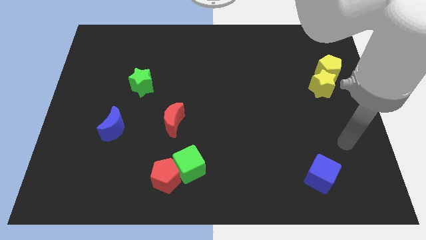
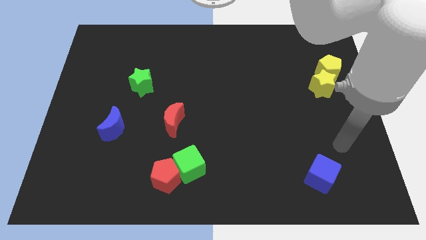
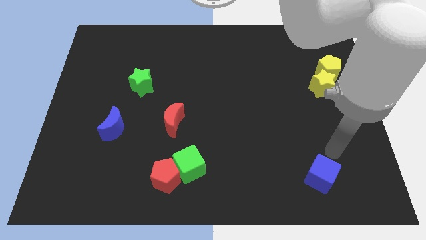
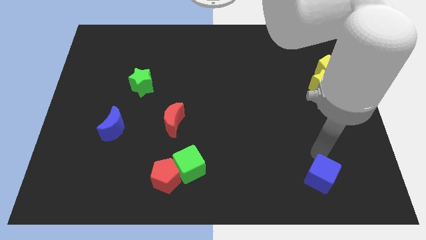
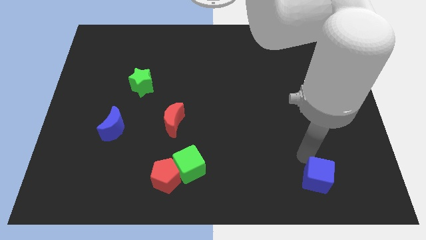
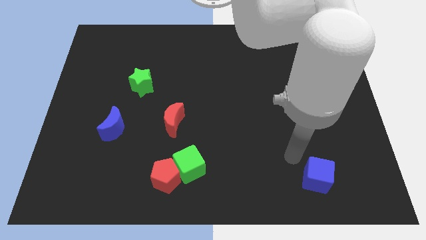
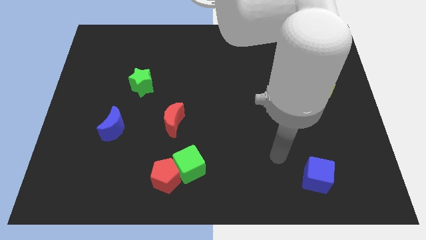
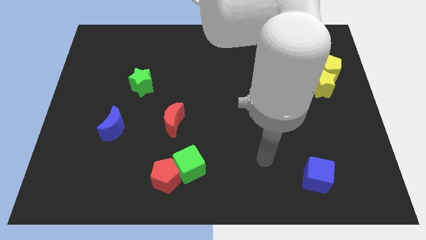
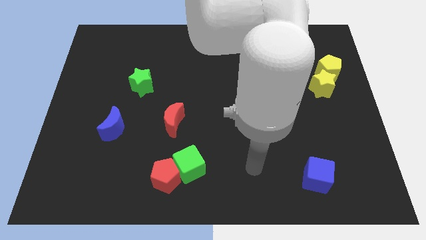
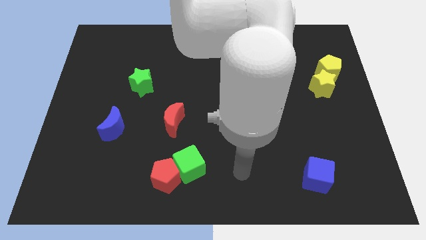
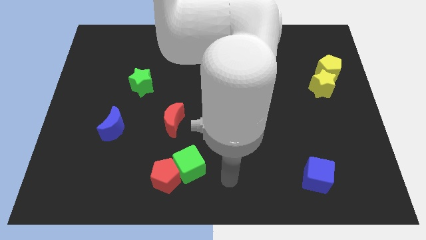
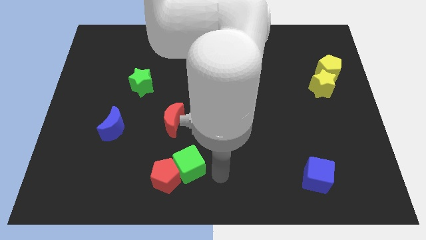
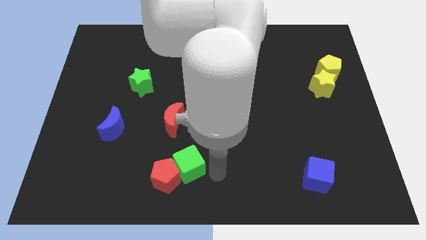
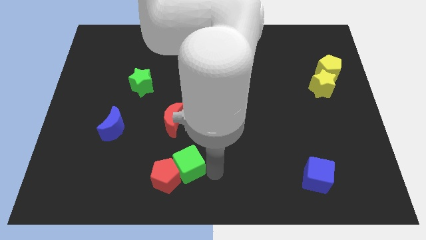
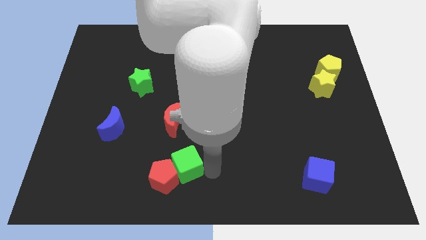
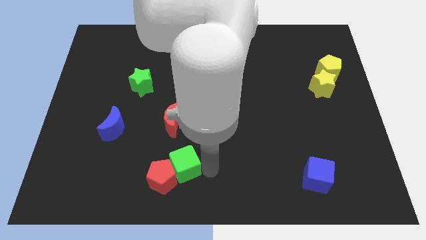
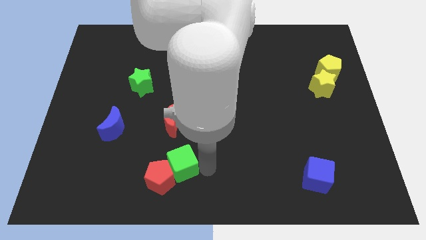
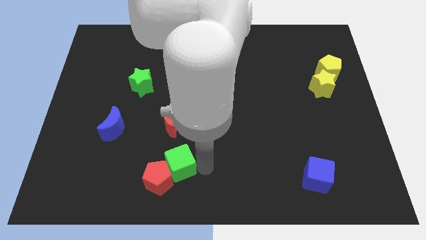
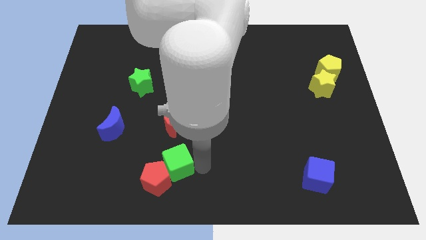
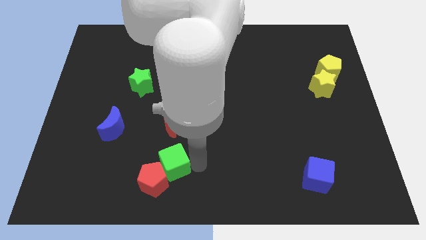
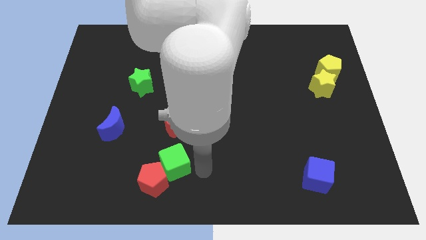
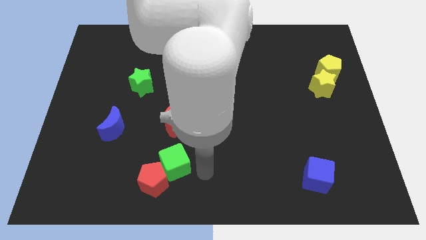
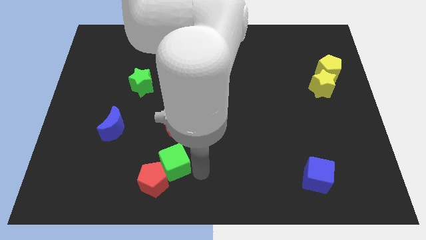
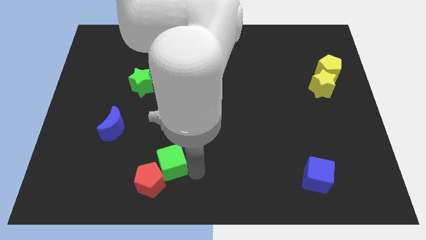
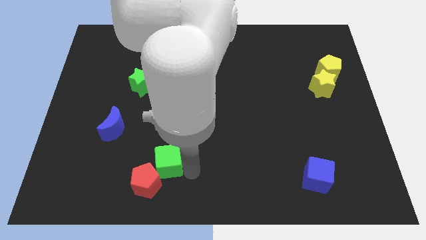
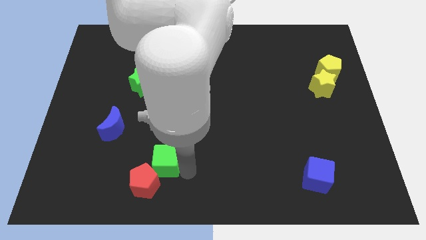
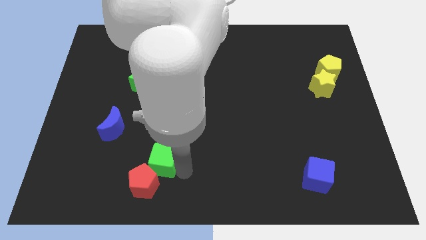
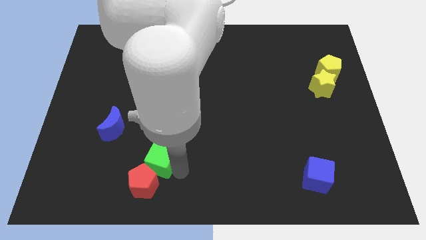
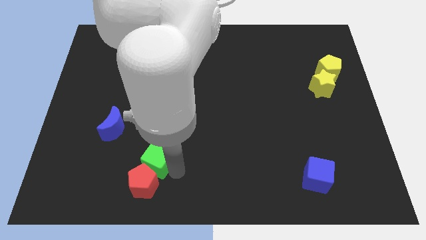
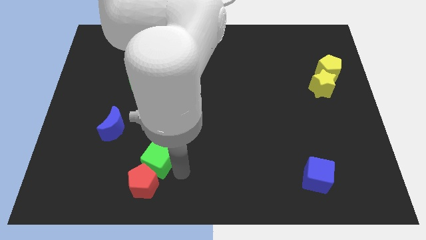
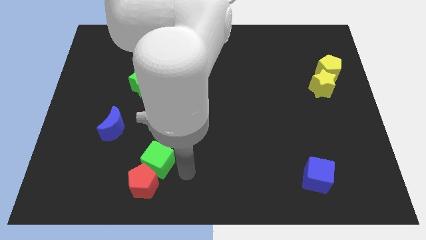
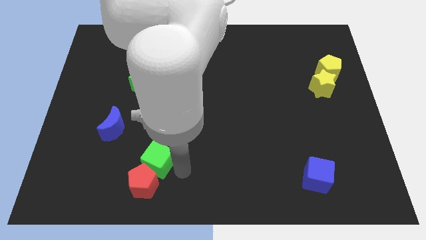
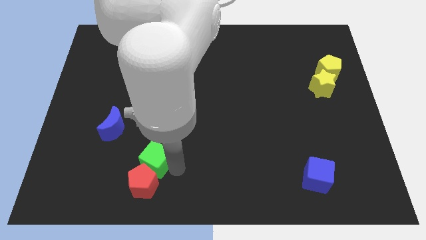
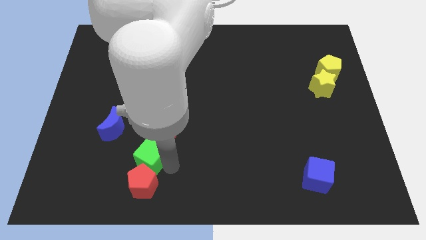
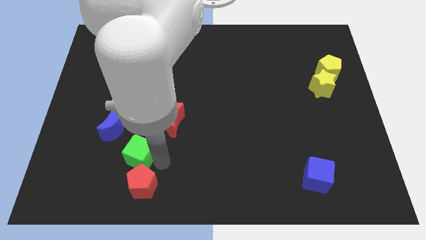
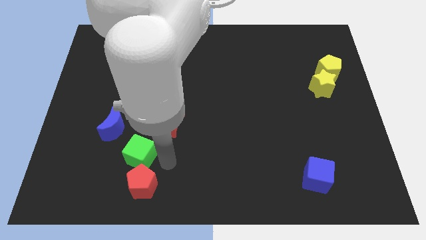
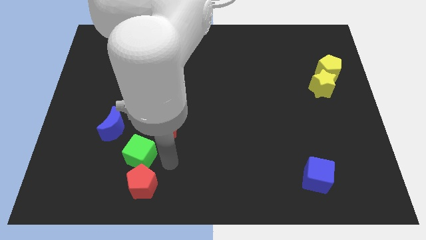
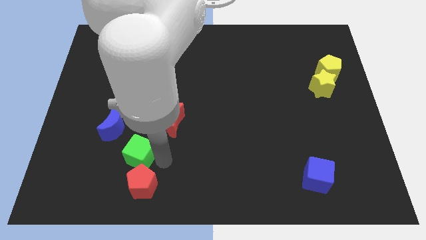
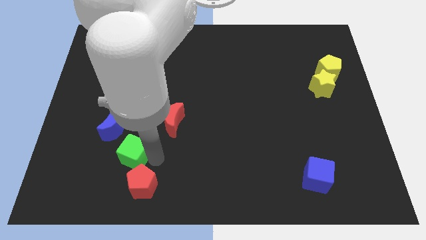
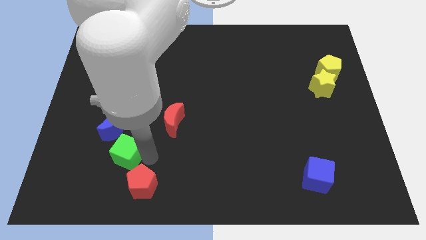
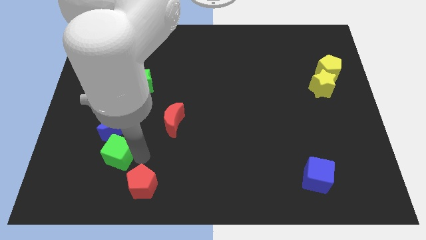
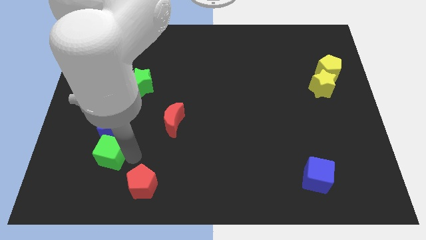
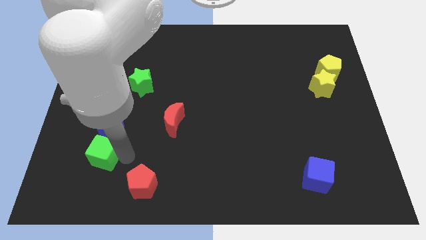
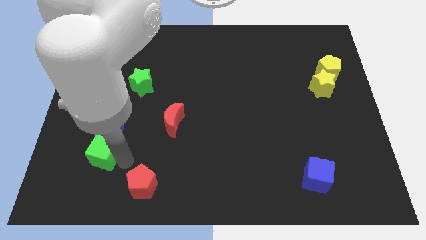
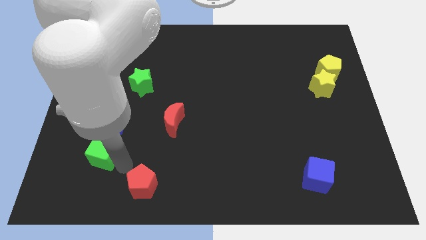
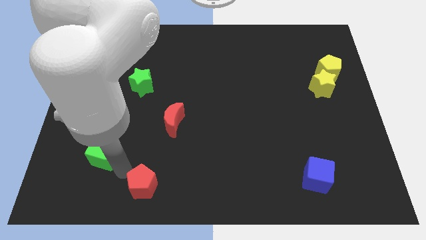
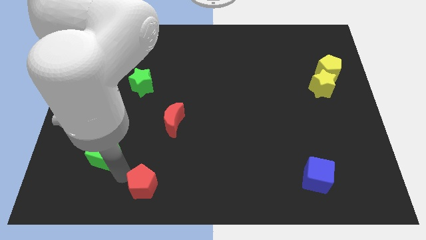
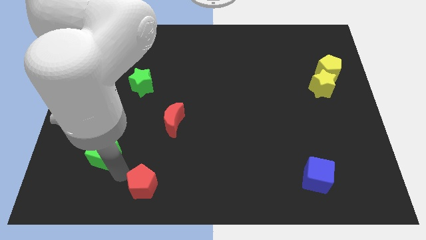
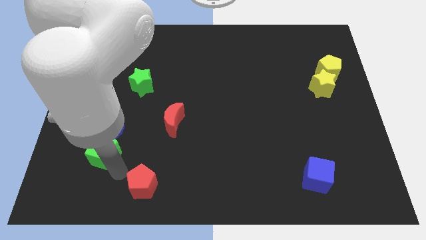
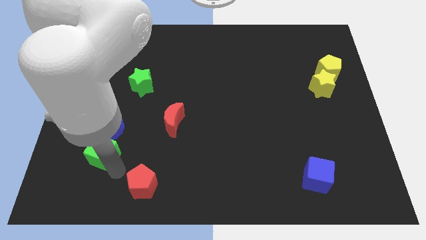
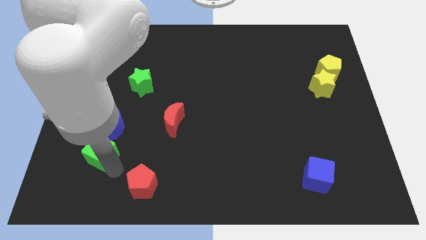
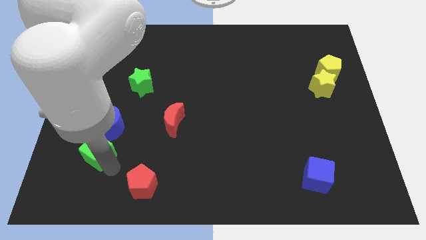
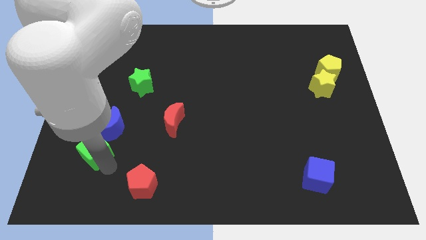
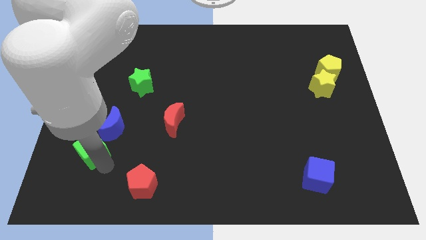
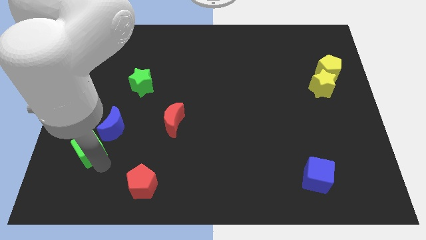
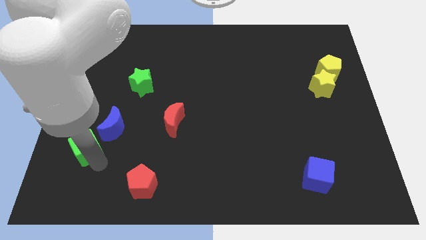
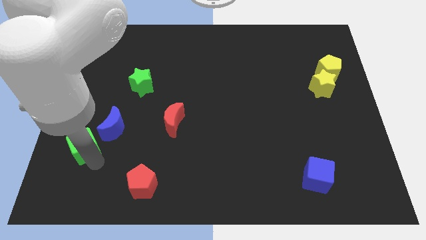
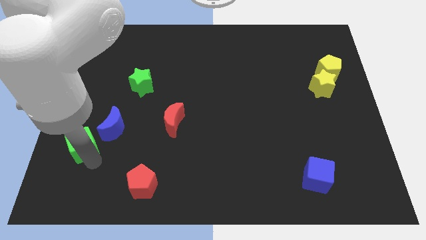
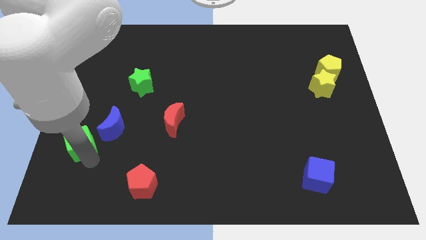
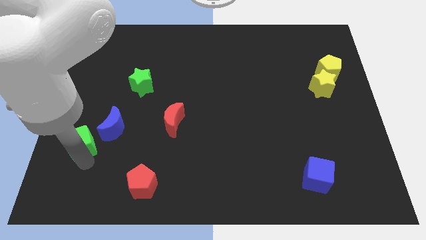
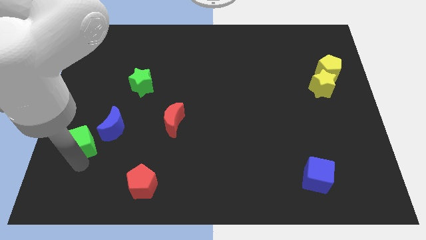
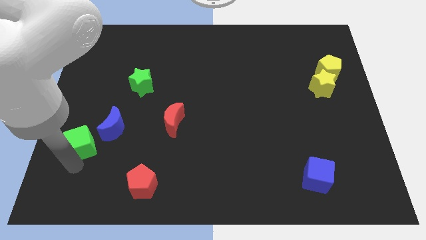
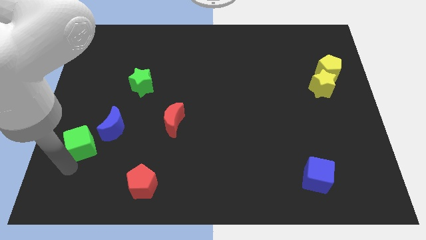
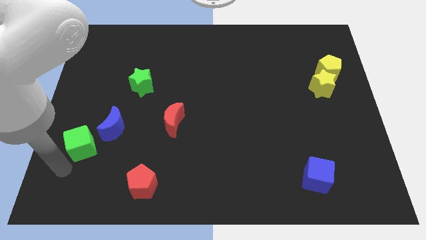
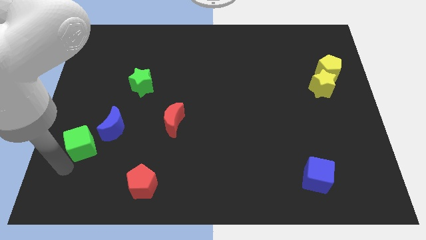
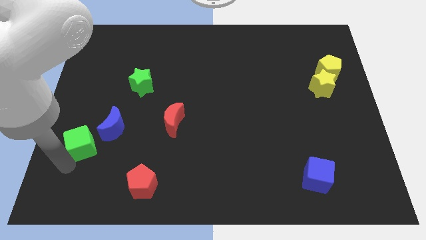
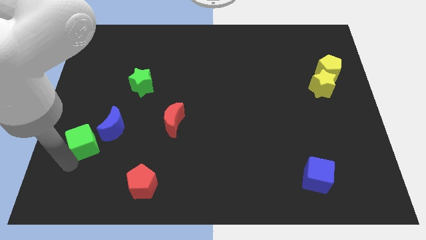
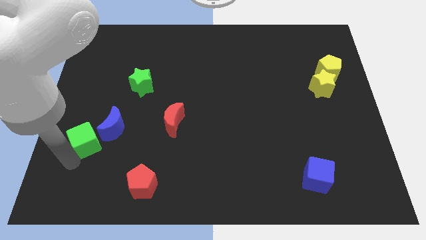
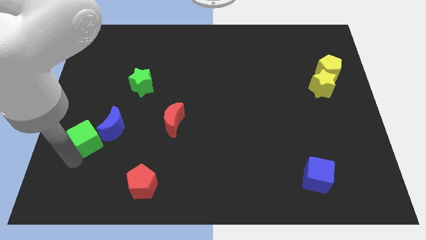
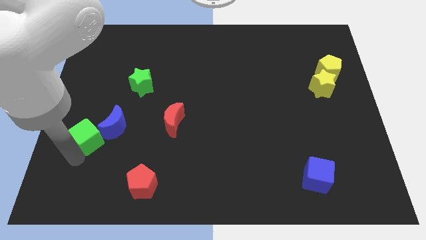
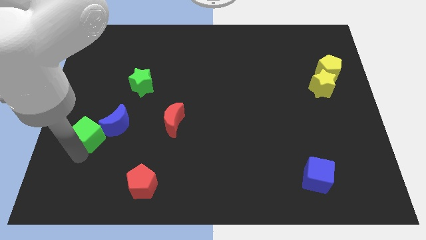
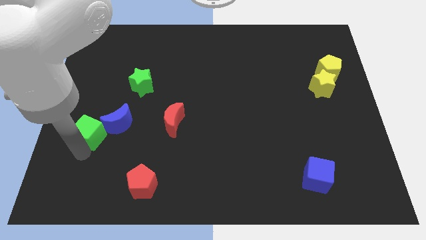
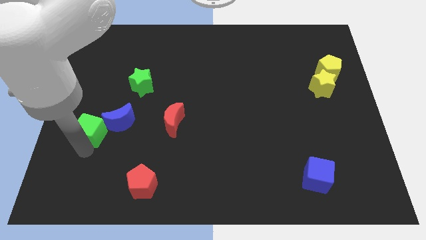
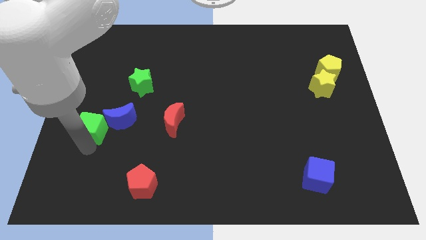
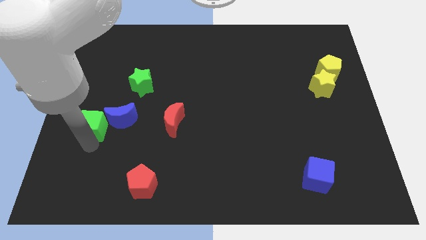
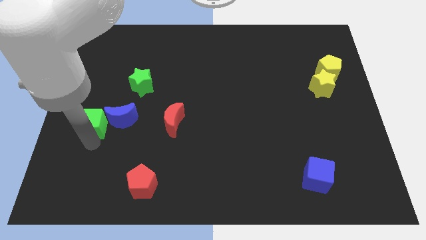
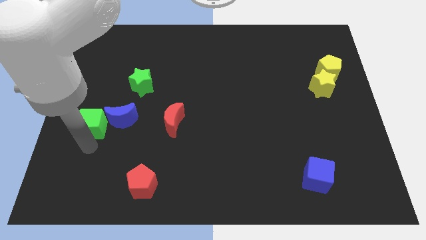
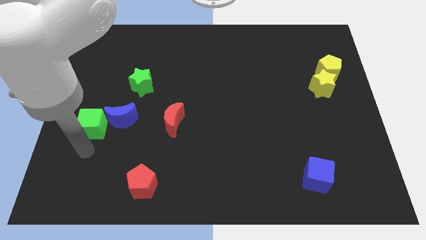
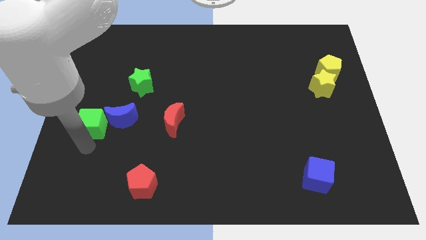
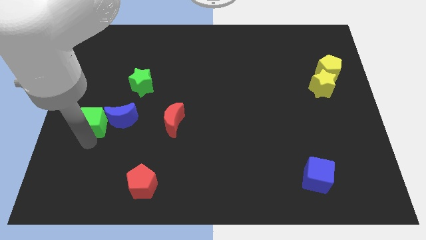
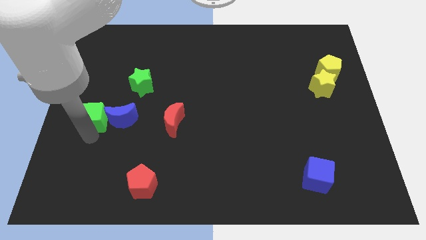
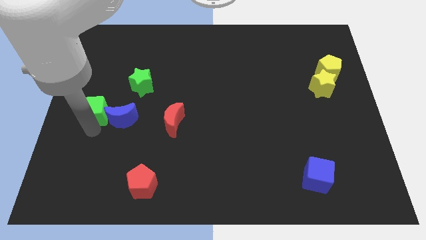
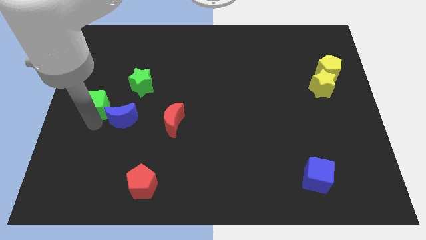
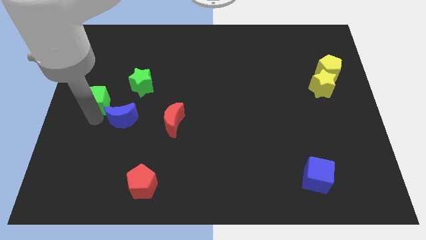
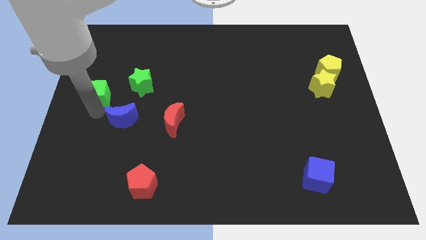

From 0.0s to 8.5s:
put the green cube left of the green star
